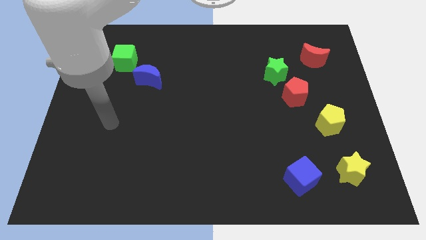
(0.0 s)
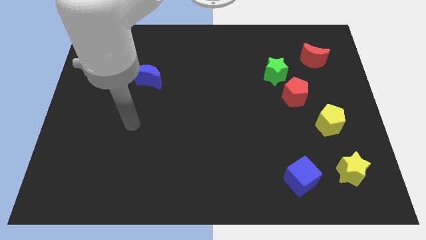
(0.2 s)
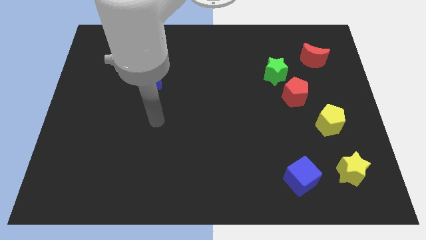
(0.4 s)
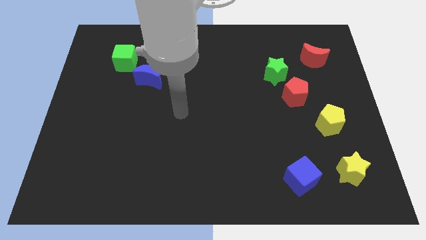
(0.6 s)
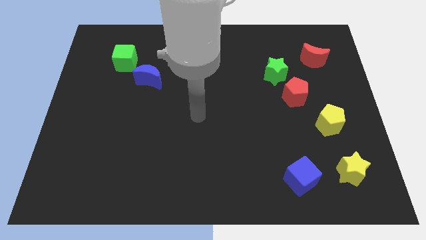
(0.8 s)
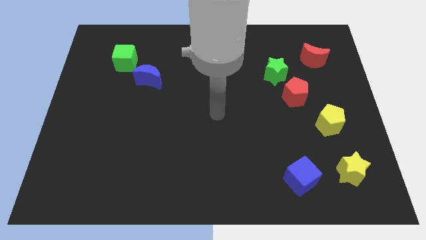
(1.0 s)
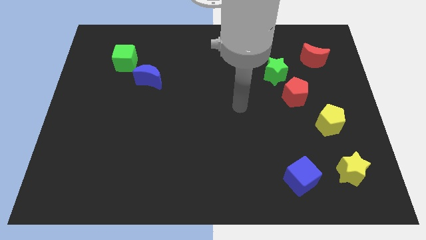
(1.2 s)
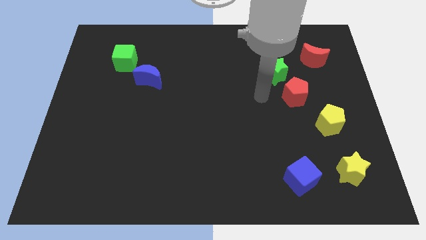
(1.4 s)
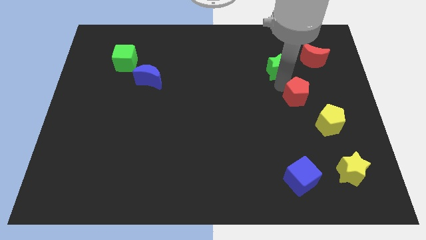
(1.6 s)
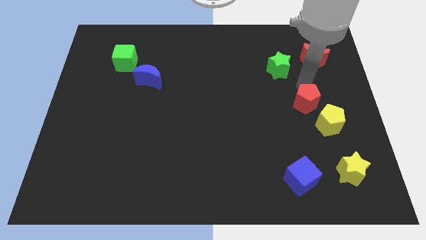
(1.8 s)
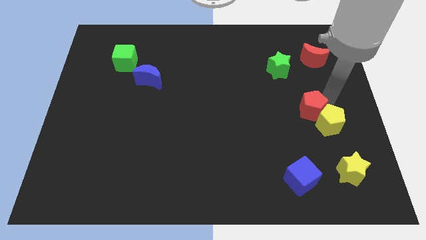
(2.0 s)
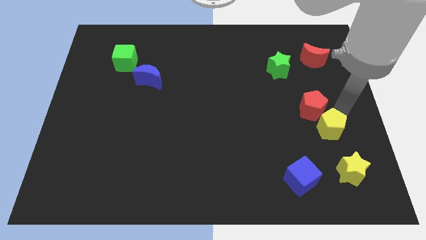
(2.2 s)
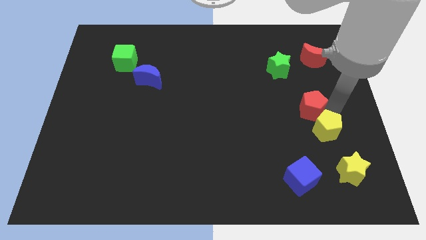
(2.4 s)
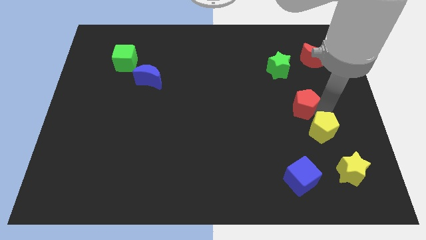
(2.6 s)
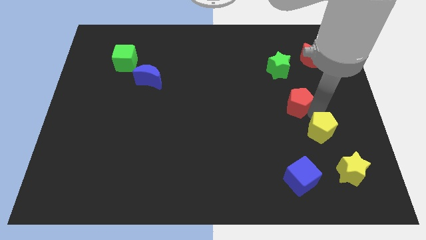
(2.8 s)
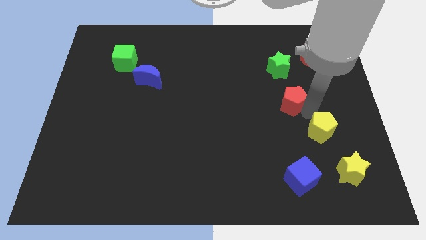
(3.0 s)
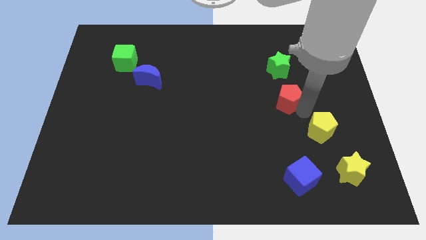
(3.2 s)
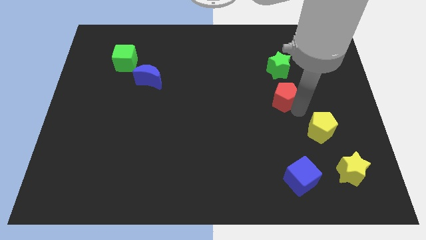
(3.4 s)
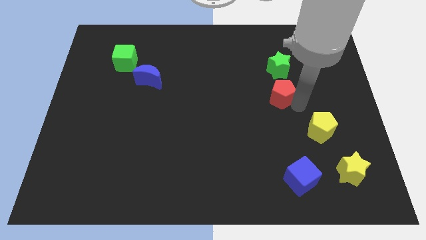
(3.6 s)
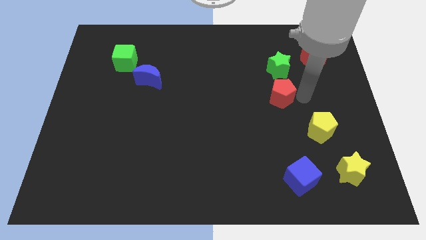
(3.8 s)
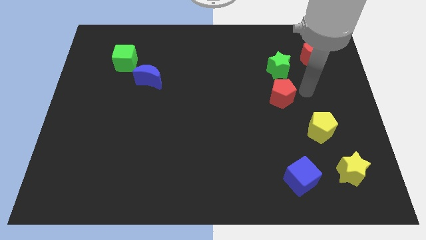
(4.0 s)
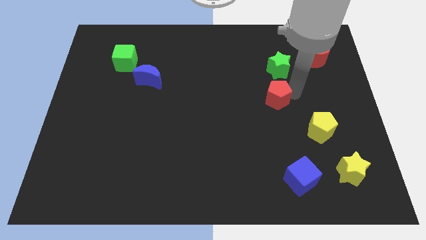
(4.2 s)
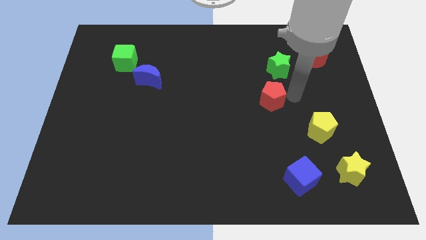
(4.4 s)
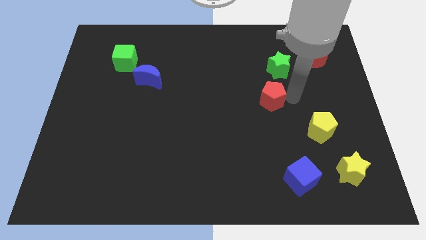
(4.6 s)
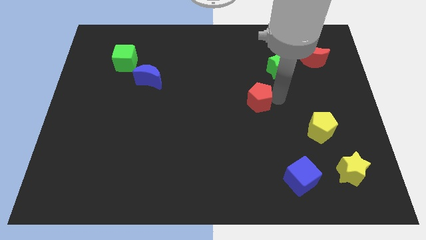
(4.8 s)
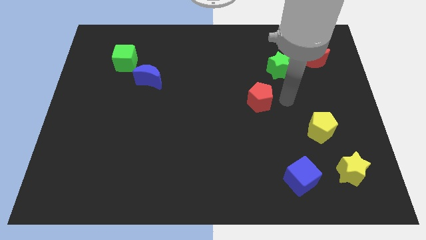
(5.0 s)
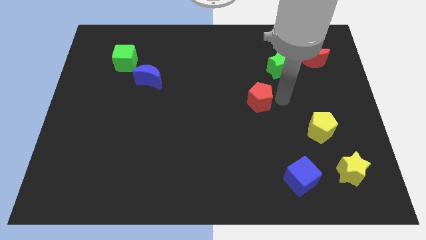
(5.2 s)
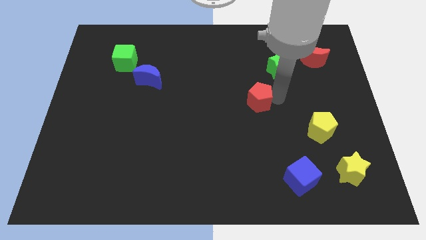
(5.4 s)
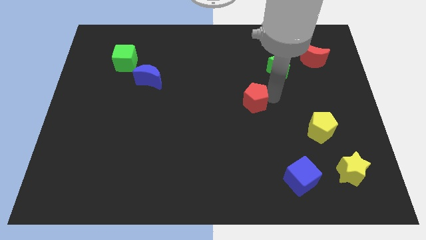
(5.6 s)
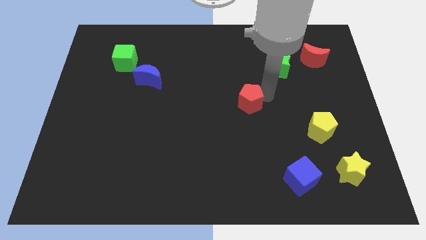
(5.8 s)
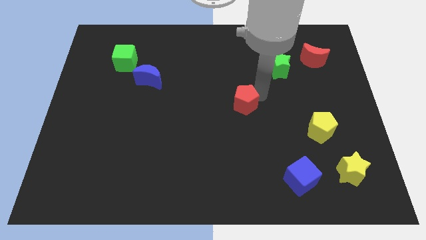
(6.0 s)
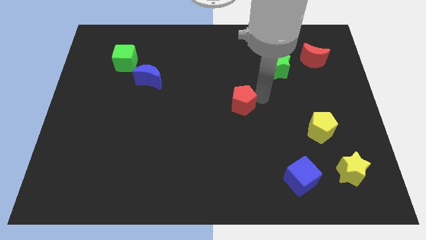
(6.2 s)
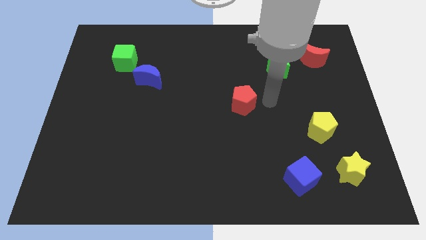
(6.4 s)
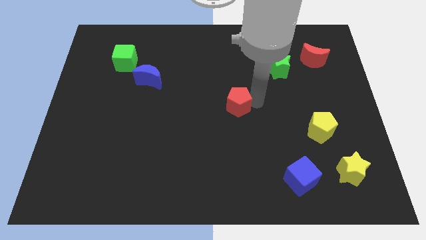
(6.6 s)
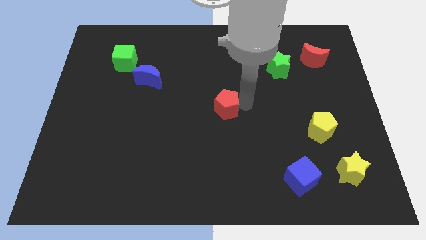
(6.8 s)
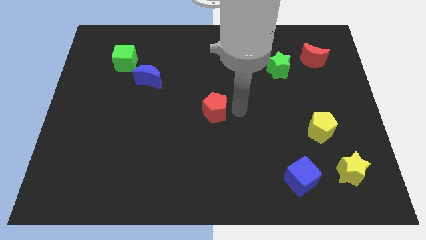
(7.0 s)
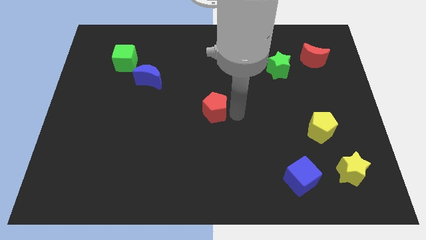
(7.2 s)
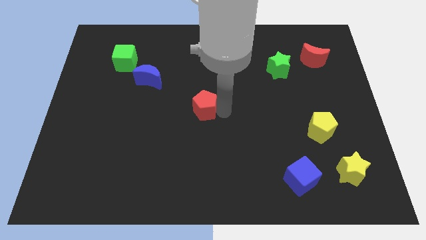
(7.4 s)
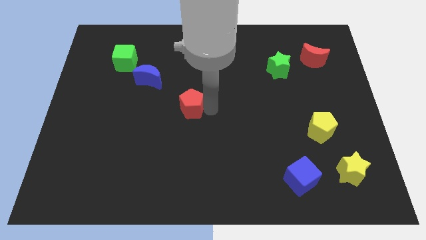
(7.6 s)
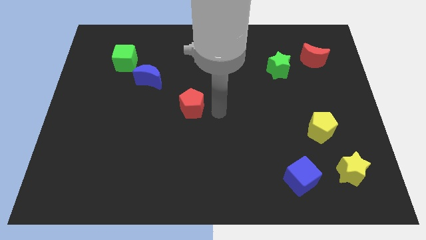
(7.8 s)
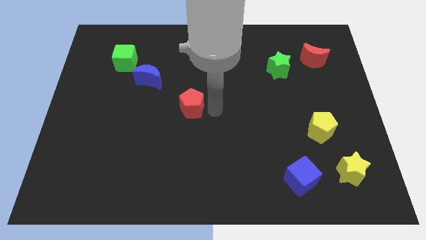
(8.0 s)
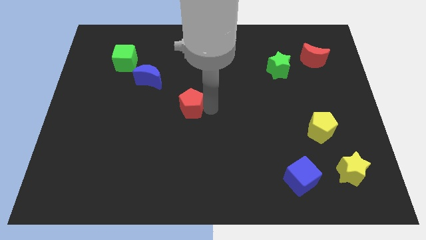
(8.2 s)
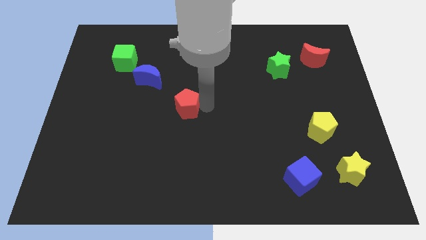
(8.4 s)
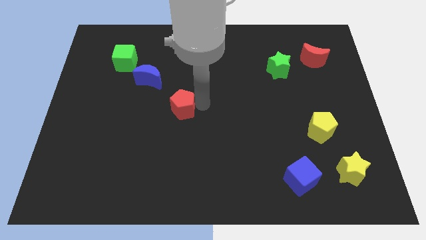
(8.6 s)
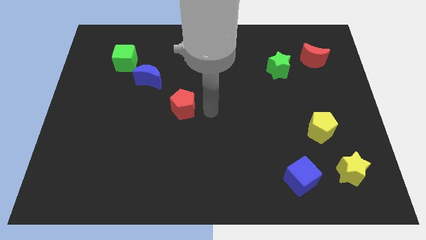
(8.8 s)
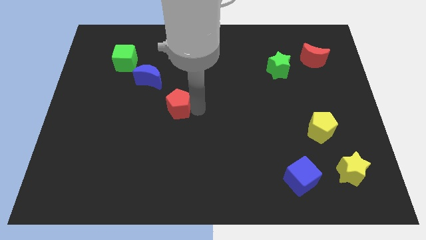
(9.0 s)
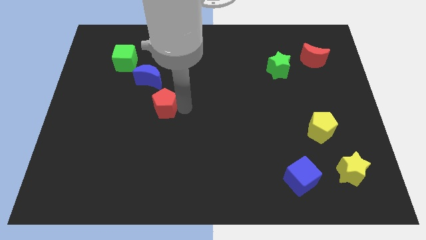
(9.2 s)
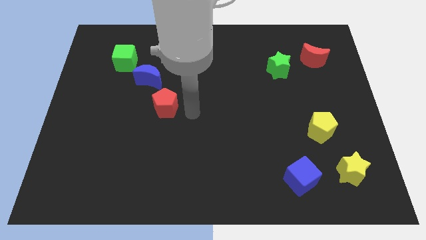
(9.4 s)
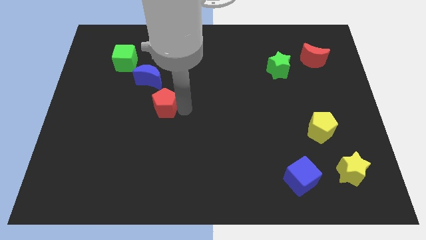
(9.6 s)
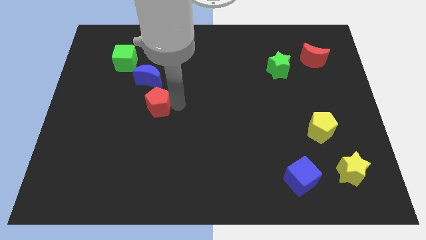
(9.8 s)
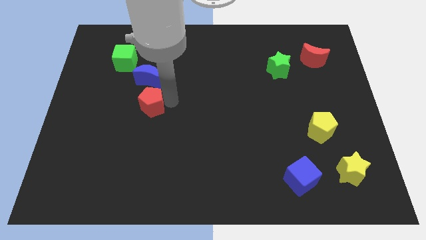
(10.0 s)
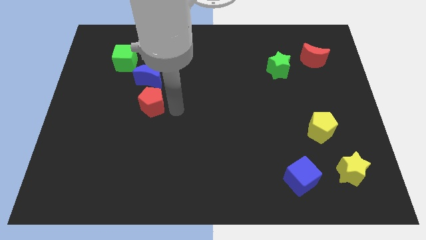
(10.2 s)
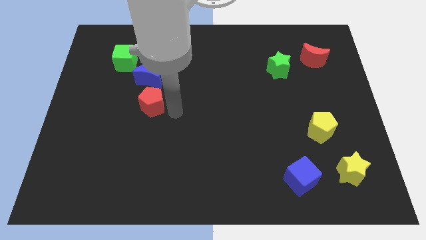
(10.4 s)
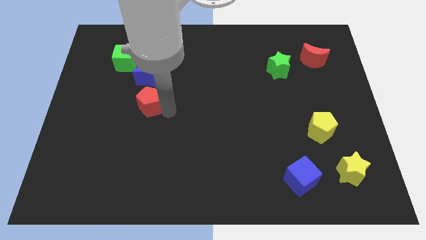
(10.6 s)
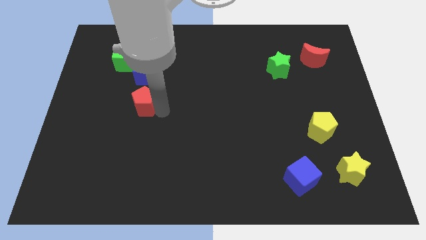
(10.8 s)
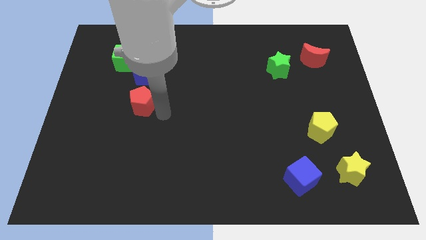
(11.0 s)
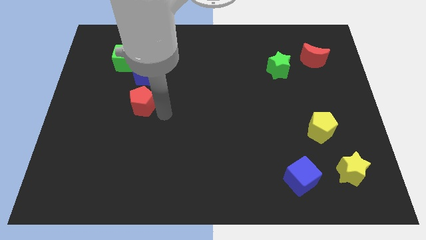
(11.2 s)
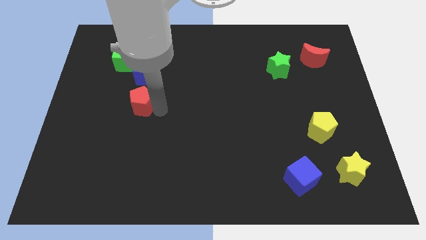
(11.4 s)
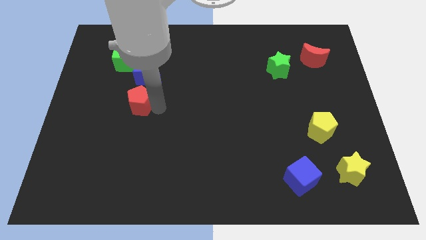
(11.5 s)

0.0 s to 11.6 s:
move the red pentagon diagonally down and to the left of the blue moon

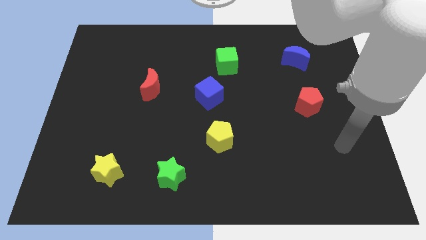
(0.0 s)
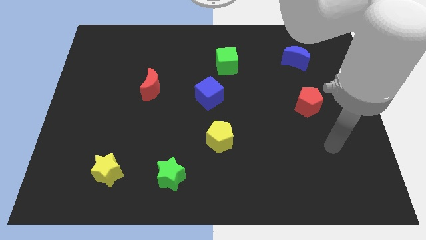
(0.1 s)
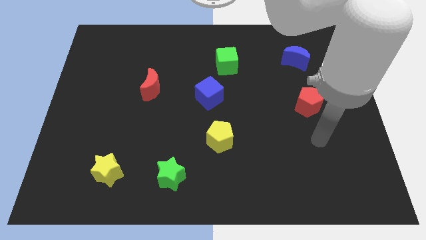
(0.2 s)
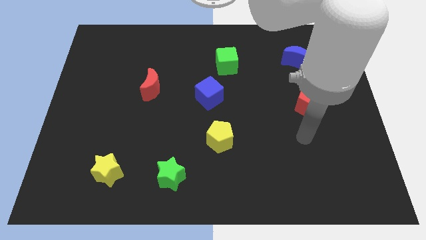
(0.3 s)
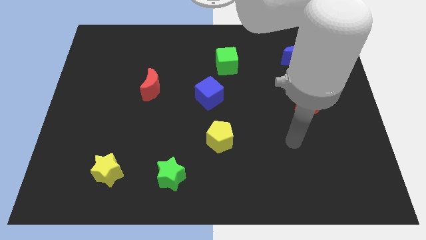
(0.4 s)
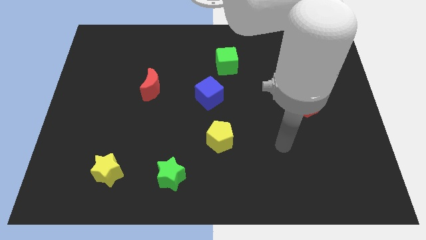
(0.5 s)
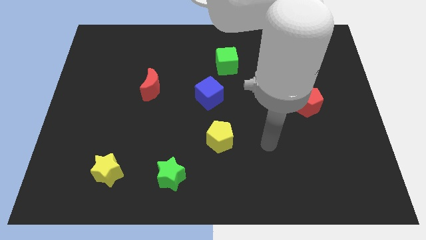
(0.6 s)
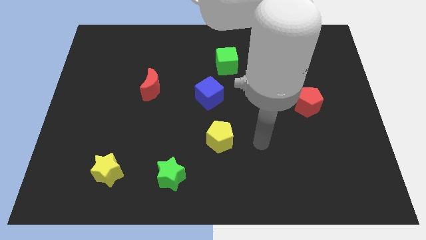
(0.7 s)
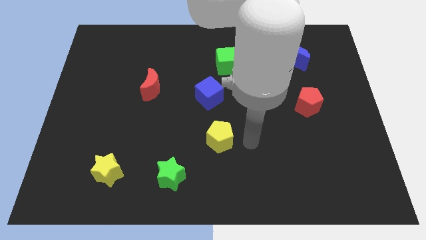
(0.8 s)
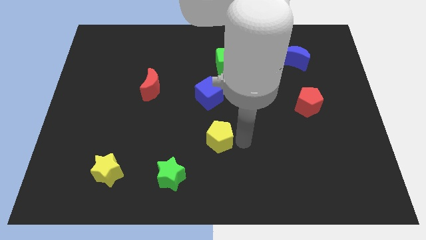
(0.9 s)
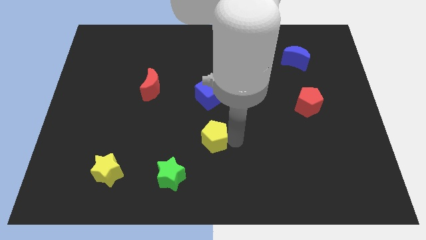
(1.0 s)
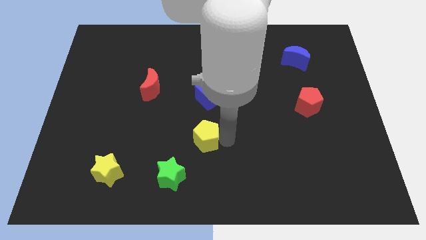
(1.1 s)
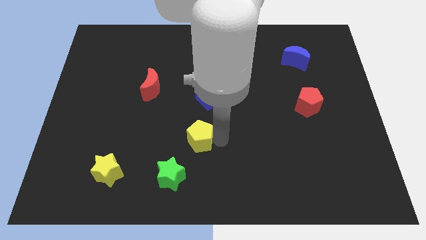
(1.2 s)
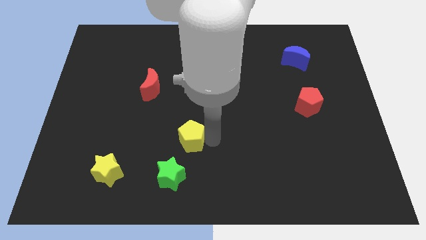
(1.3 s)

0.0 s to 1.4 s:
move the yellow pentagon to the top side of the green star
